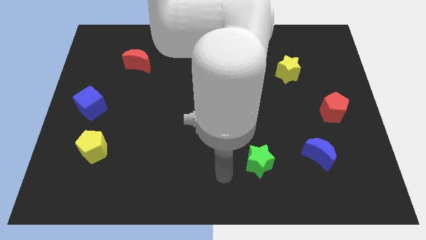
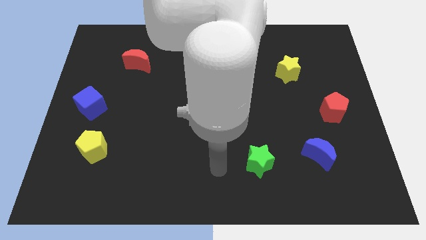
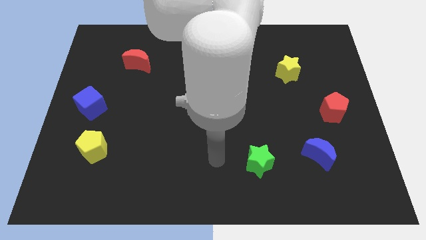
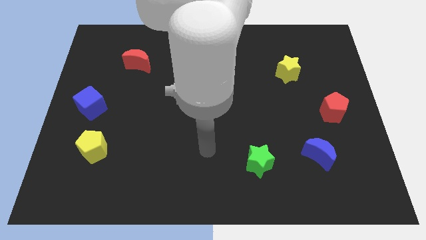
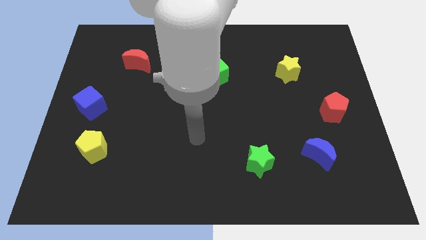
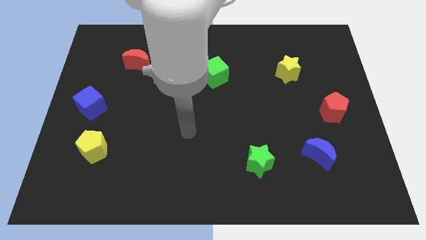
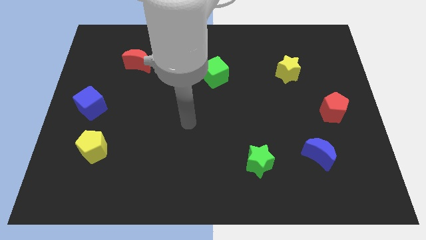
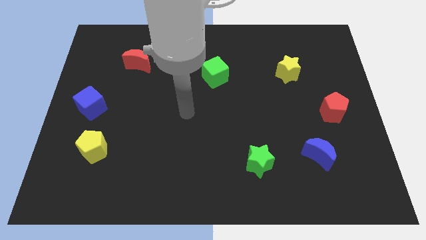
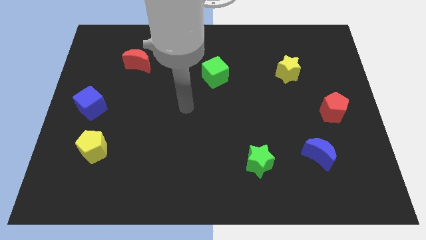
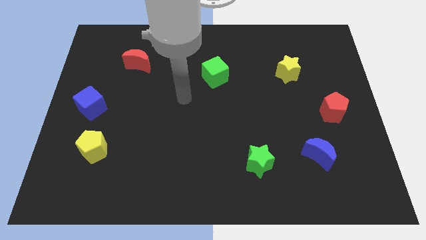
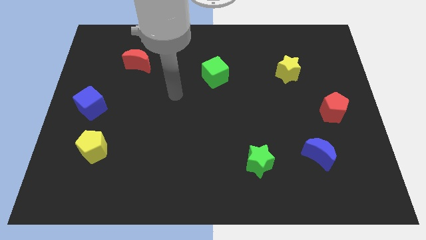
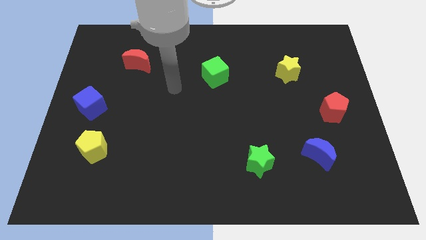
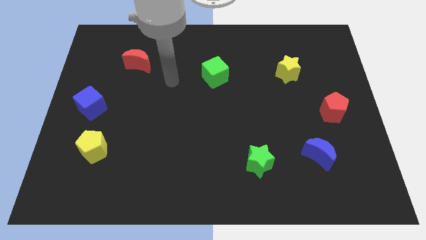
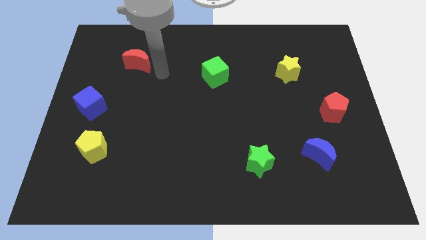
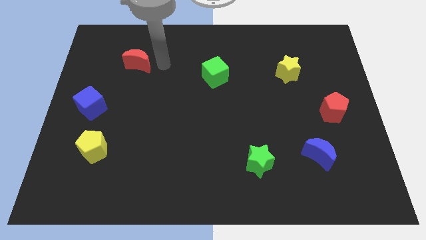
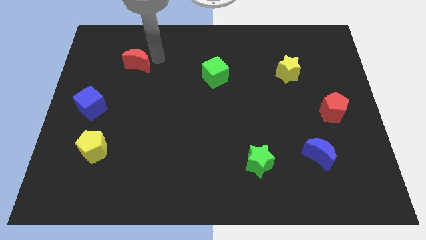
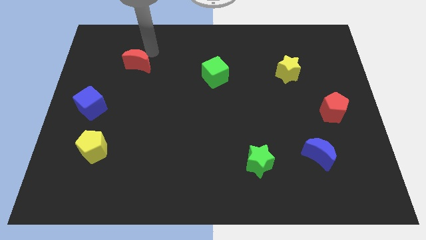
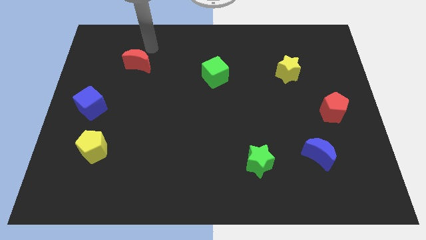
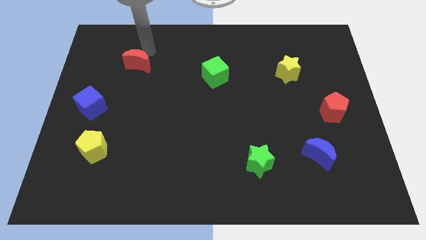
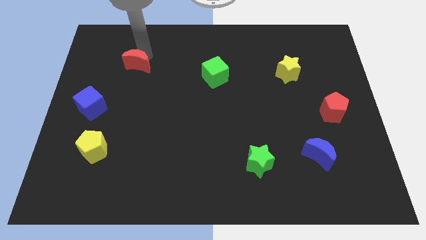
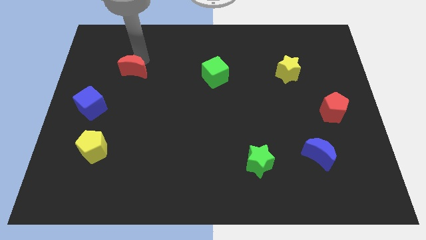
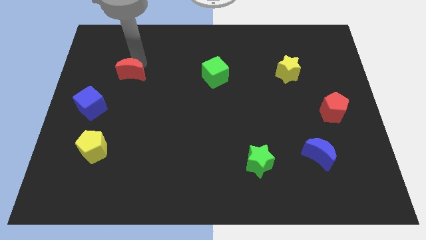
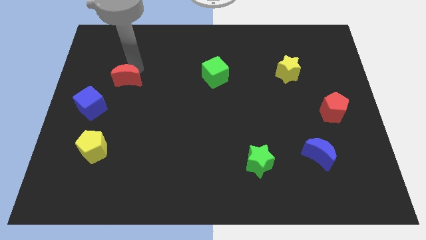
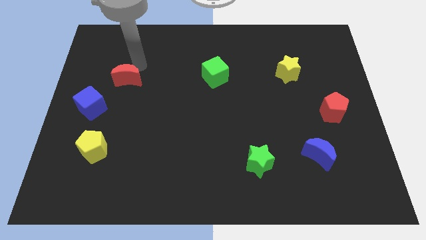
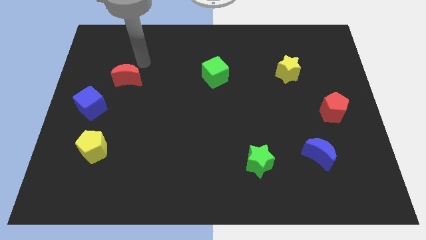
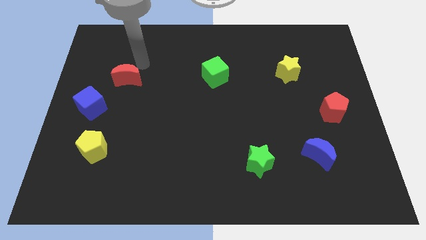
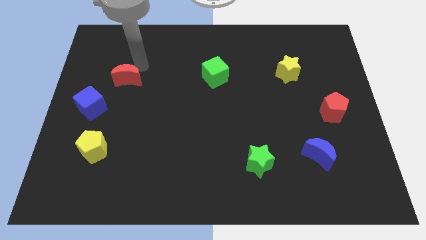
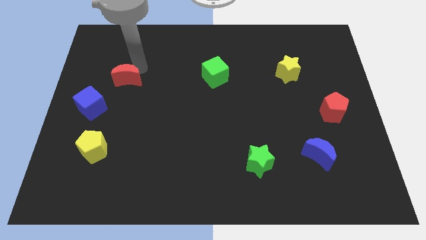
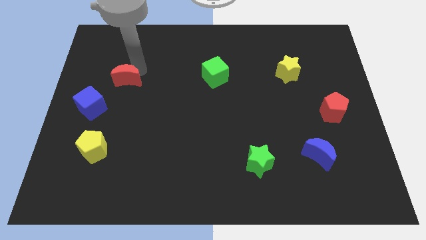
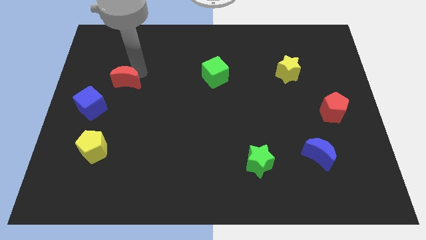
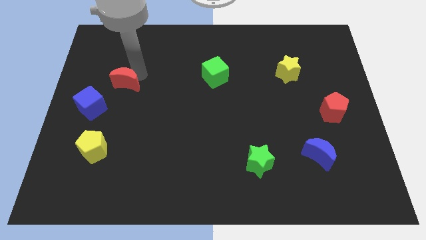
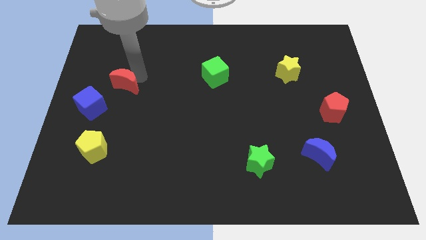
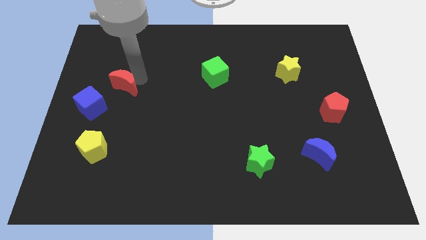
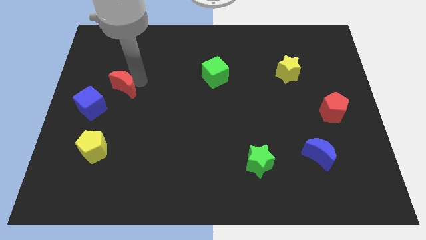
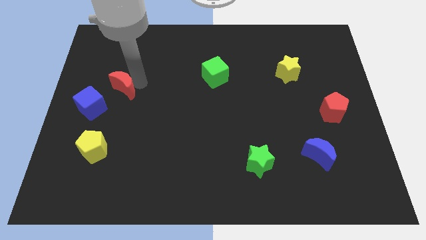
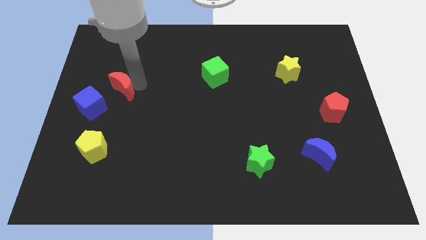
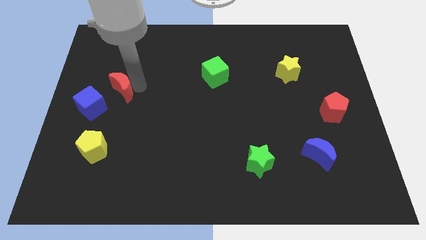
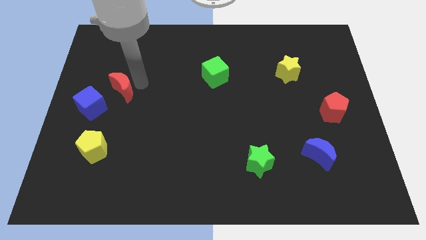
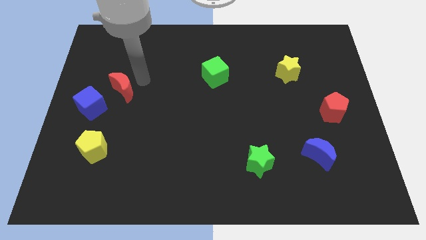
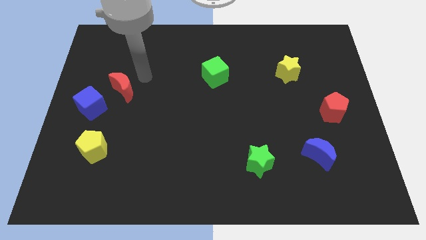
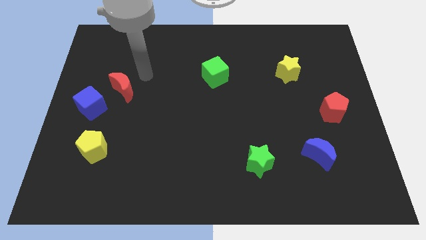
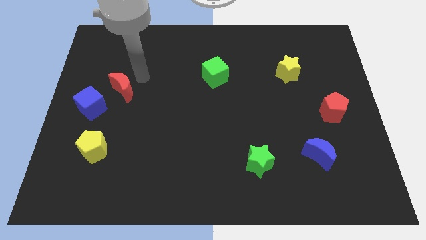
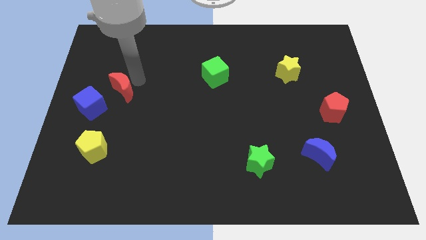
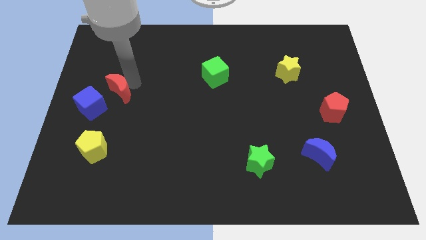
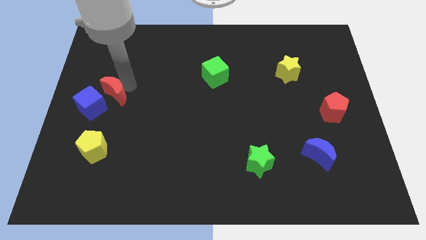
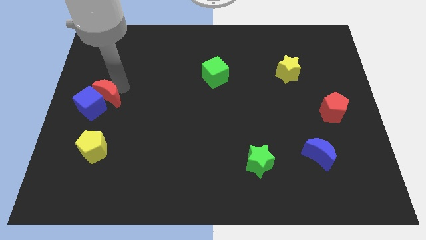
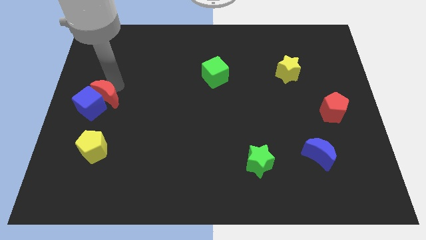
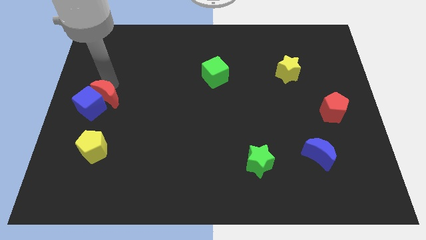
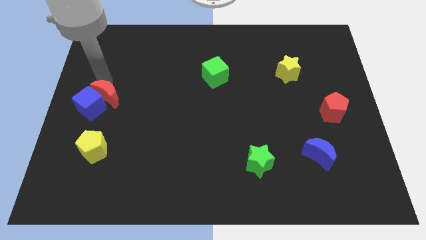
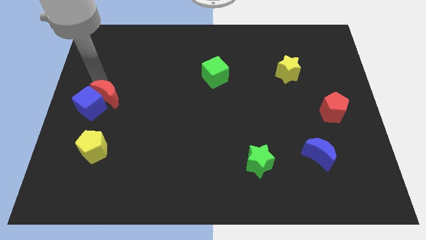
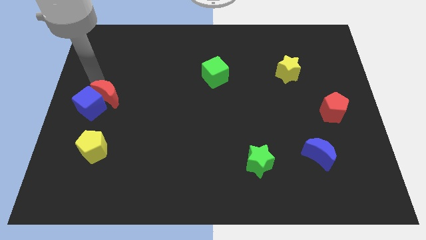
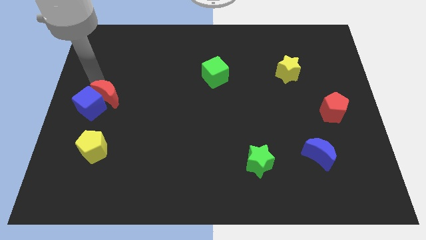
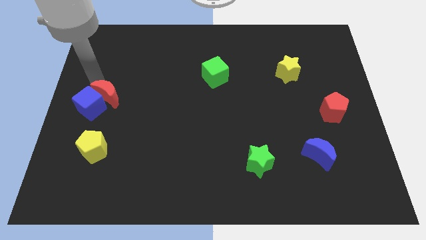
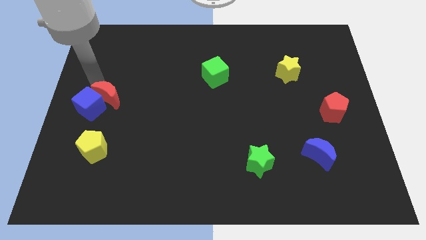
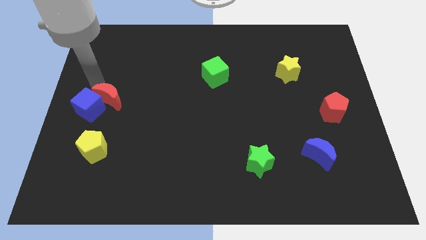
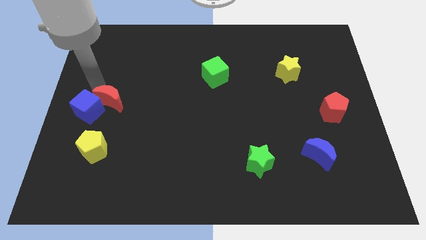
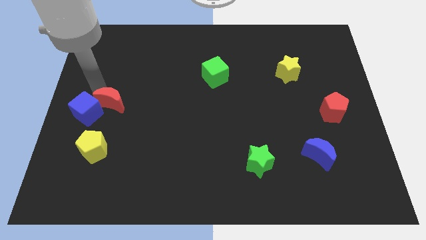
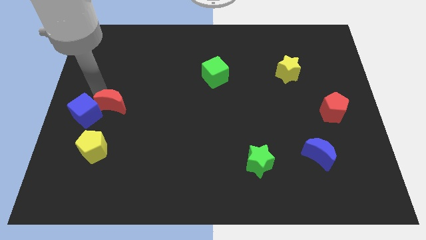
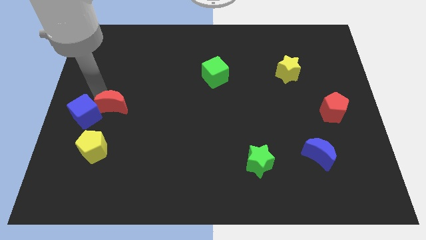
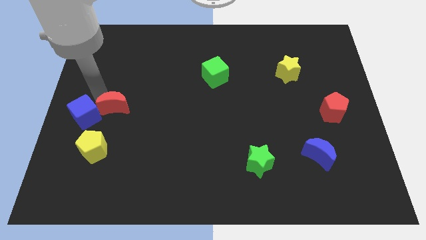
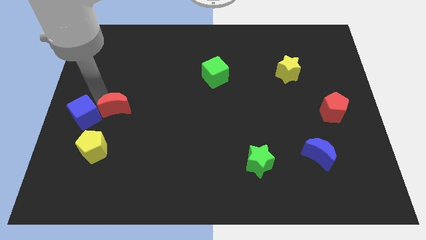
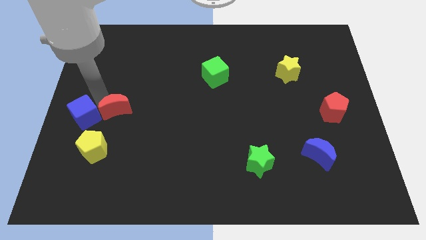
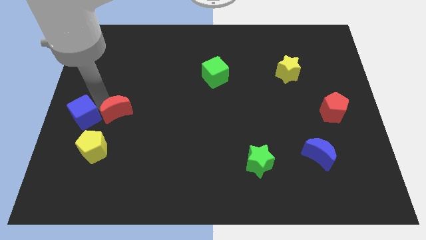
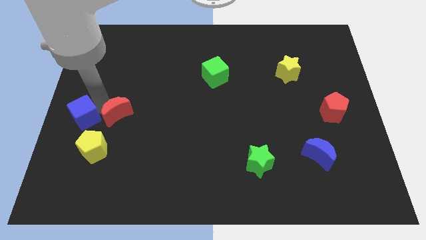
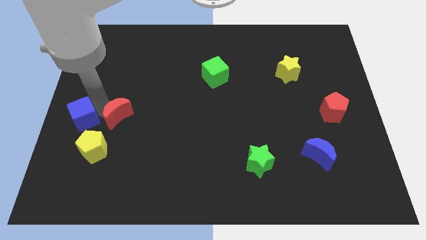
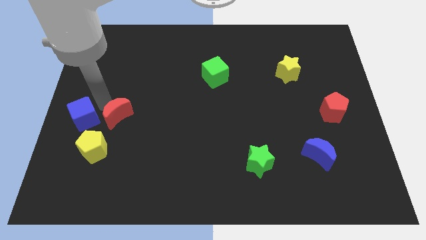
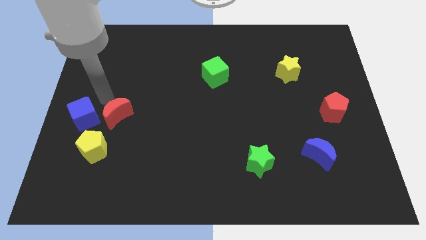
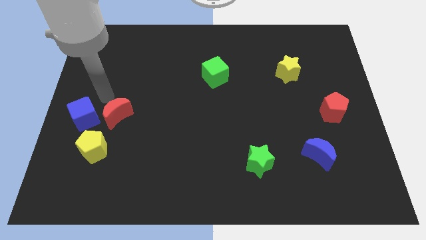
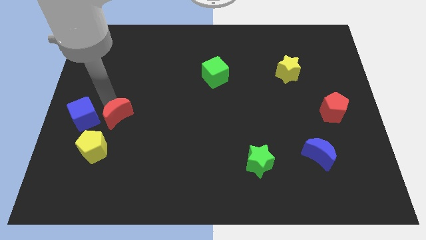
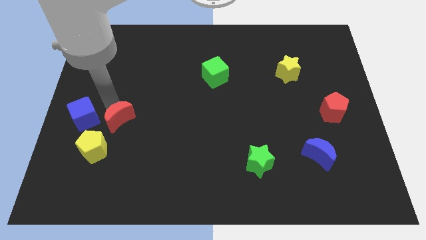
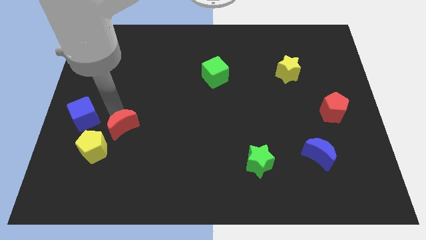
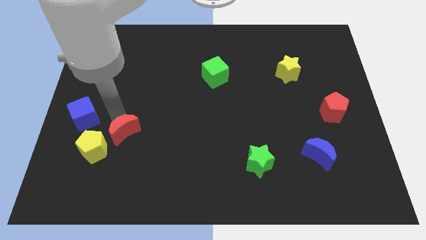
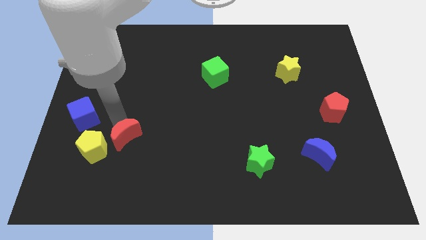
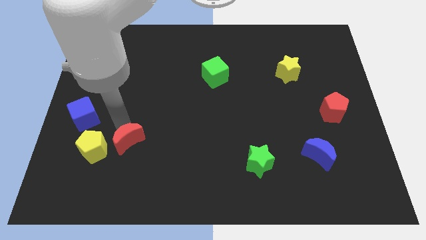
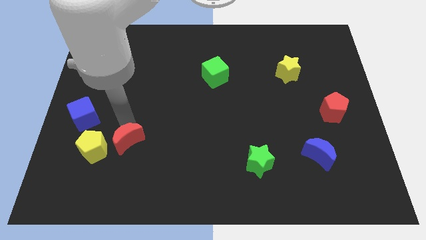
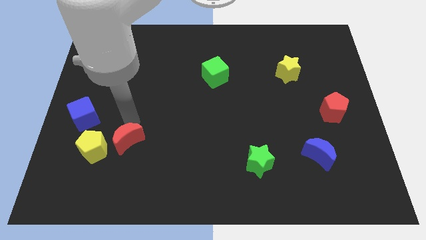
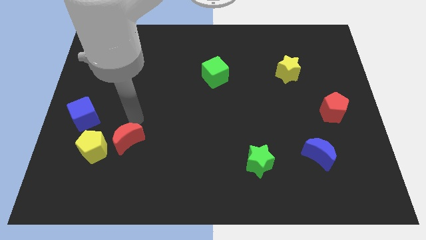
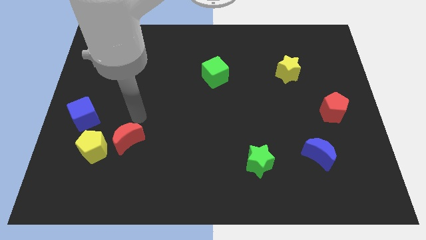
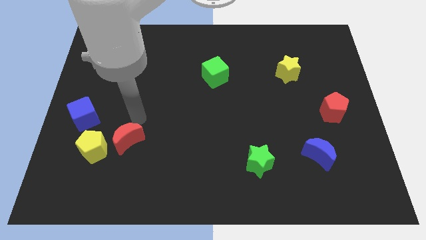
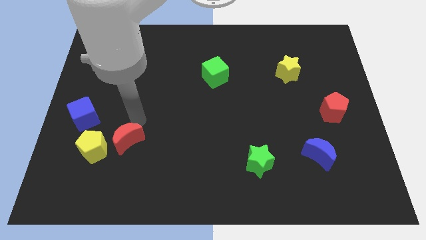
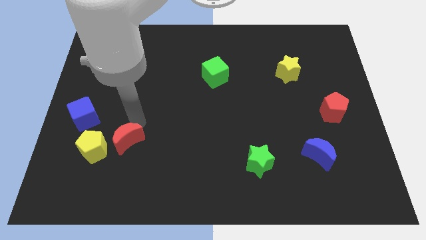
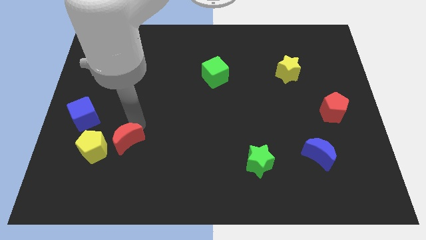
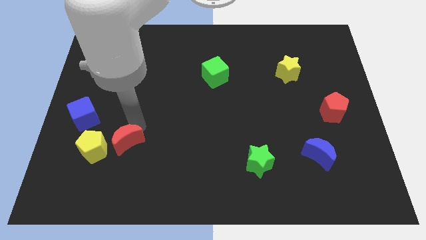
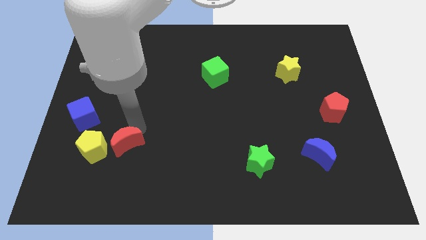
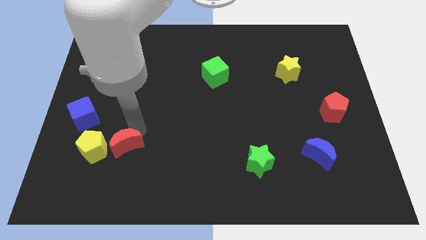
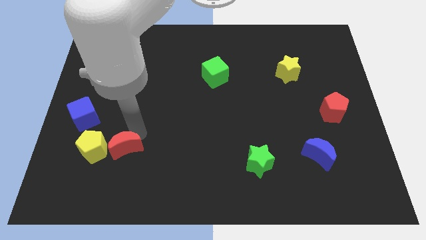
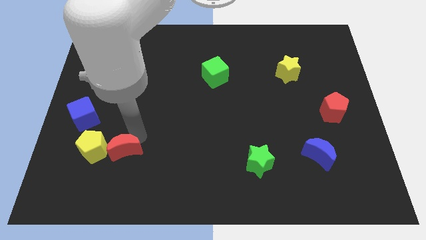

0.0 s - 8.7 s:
slide the red moon to the bottom right of the yellow pentagon
